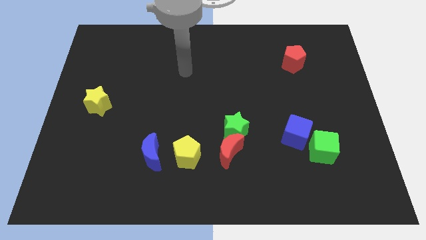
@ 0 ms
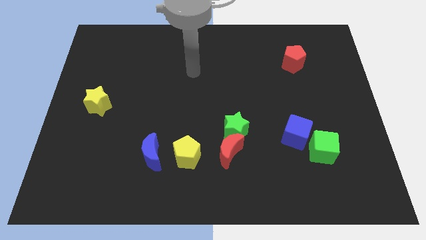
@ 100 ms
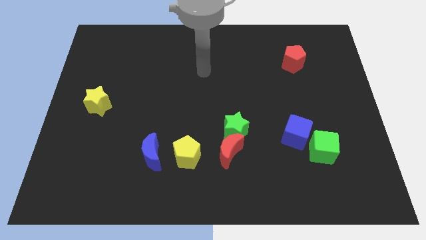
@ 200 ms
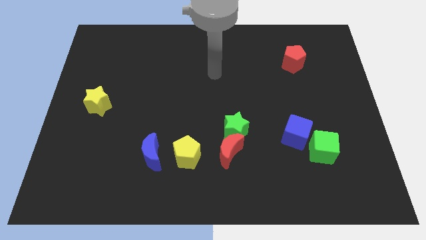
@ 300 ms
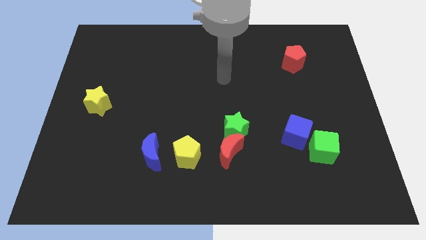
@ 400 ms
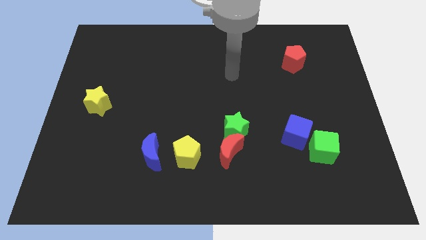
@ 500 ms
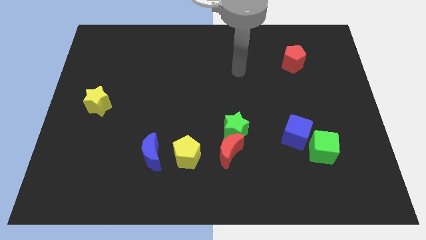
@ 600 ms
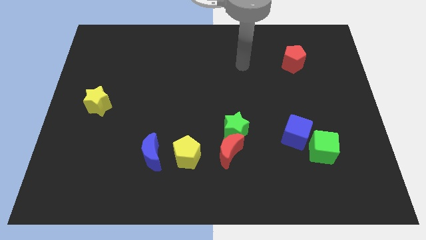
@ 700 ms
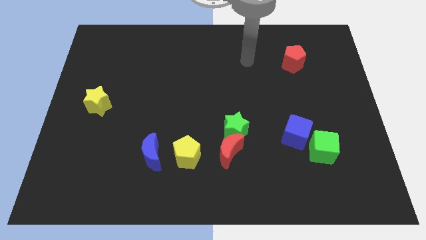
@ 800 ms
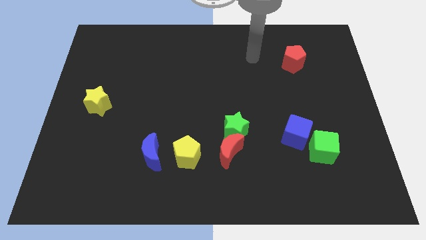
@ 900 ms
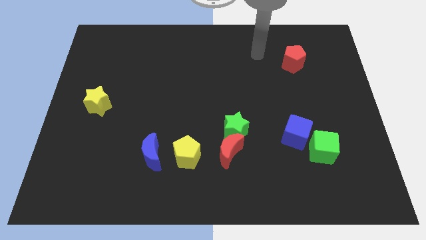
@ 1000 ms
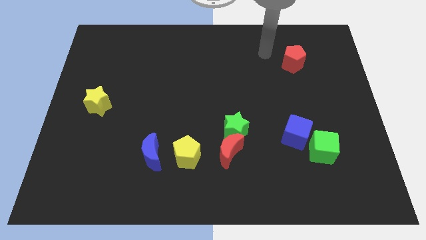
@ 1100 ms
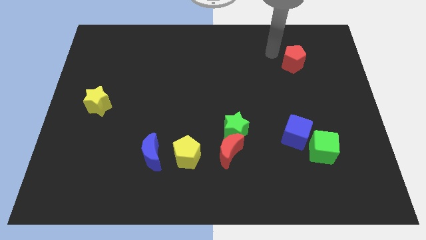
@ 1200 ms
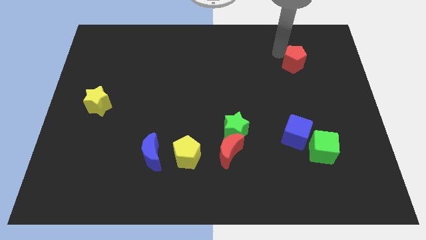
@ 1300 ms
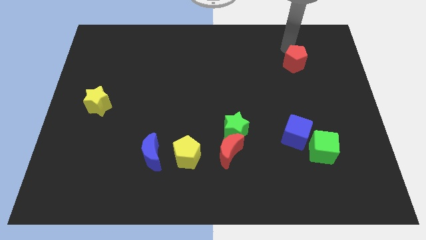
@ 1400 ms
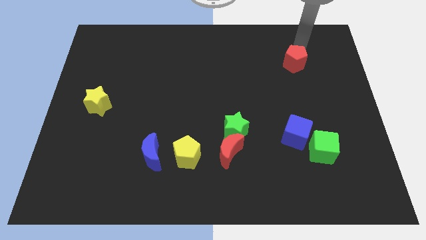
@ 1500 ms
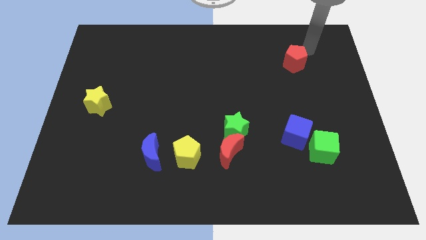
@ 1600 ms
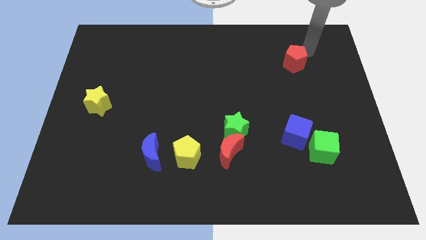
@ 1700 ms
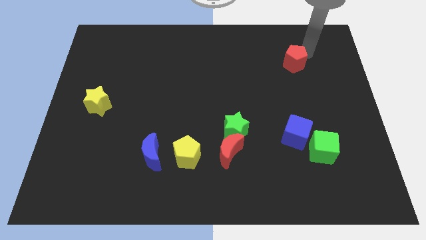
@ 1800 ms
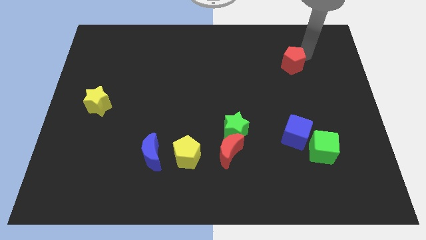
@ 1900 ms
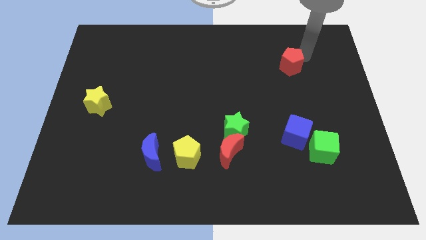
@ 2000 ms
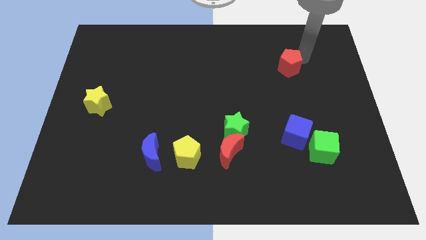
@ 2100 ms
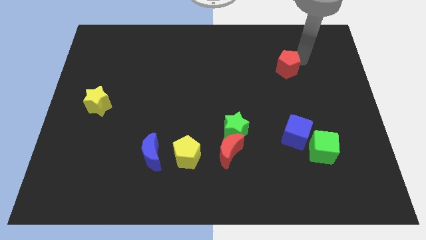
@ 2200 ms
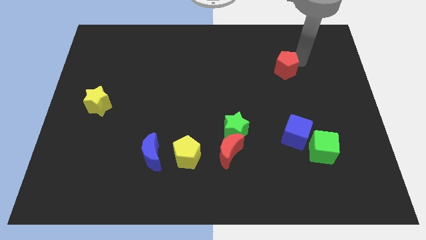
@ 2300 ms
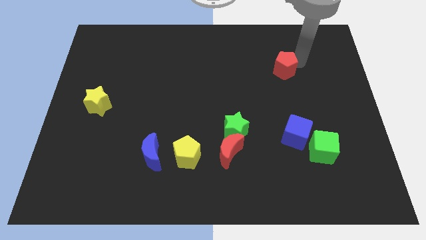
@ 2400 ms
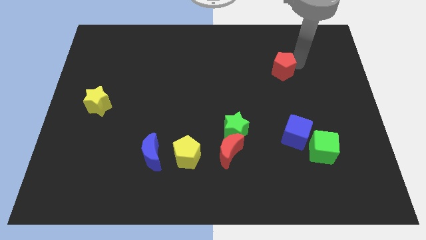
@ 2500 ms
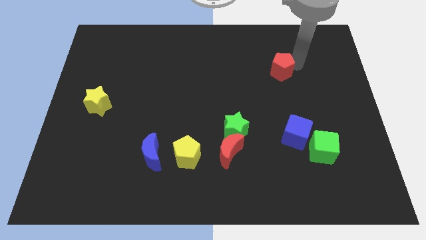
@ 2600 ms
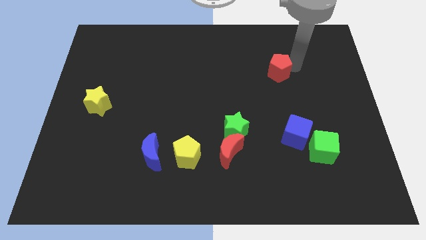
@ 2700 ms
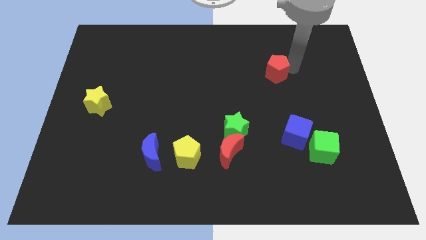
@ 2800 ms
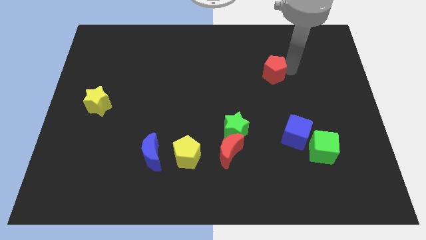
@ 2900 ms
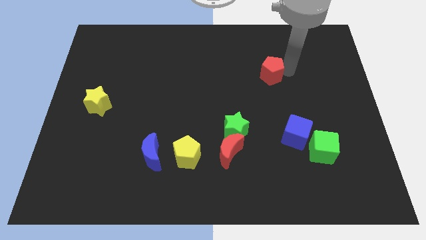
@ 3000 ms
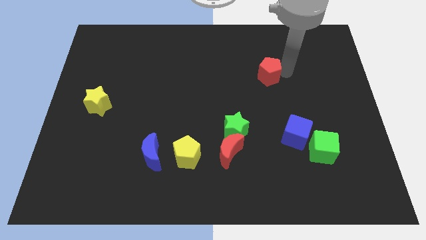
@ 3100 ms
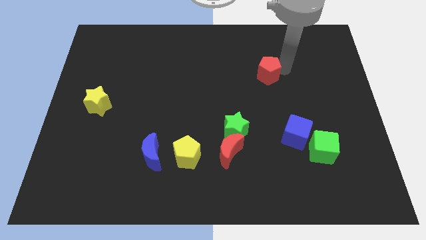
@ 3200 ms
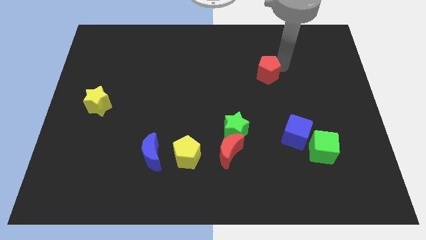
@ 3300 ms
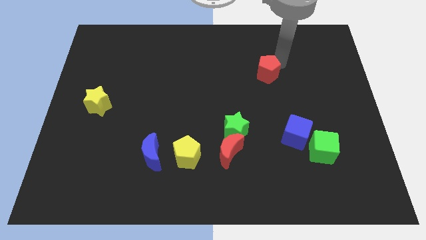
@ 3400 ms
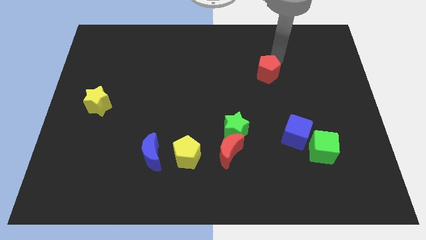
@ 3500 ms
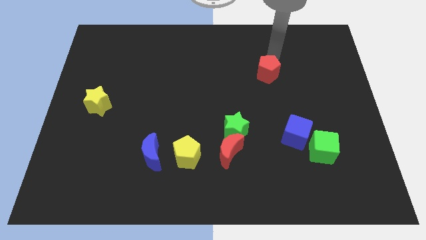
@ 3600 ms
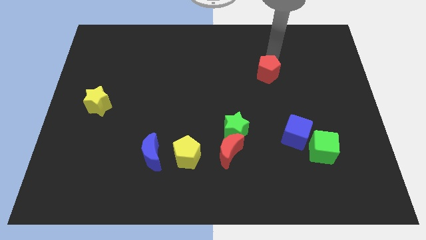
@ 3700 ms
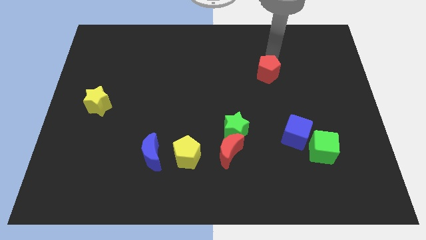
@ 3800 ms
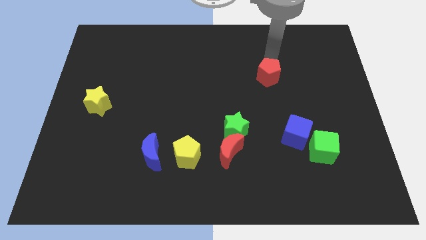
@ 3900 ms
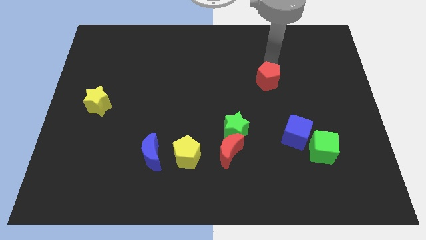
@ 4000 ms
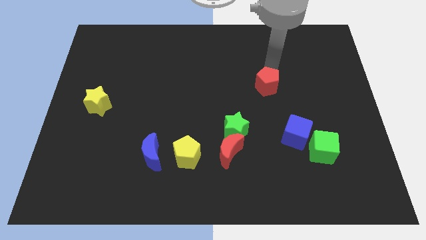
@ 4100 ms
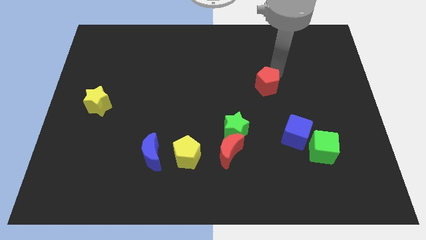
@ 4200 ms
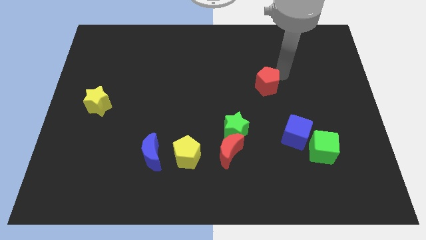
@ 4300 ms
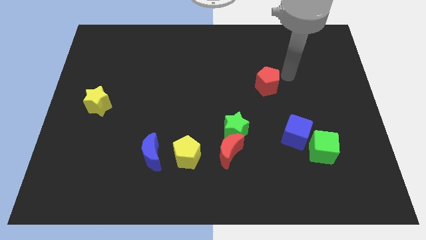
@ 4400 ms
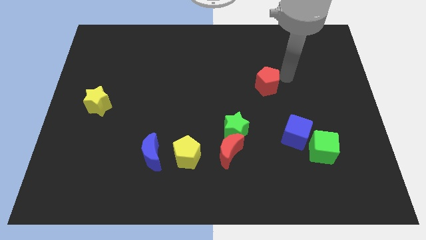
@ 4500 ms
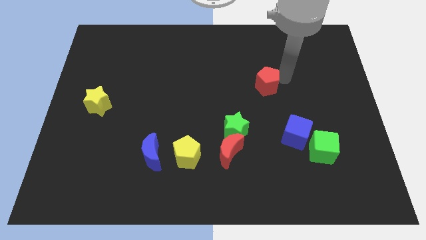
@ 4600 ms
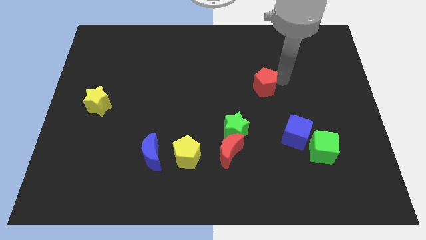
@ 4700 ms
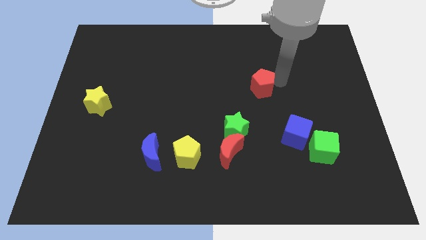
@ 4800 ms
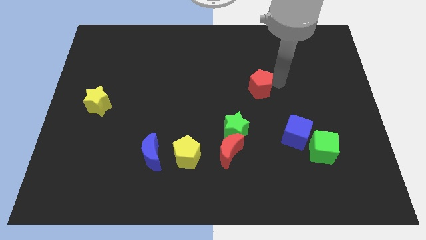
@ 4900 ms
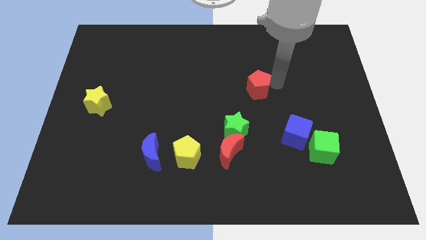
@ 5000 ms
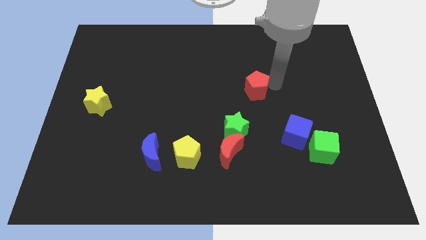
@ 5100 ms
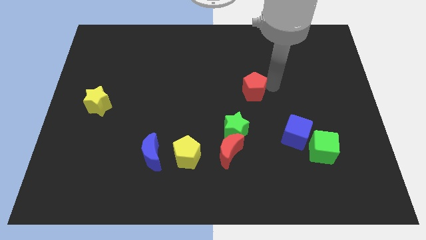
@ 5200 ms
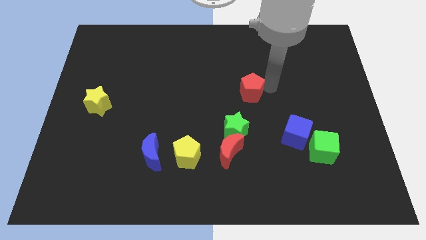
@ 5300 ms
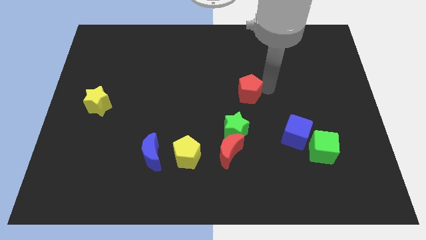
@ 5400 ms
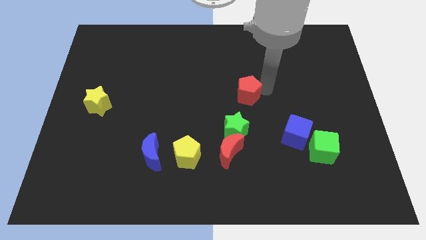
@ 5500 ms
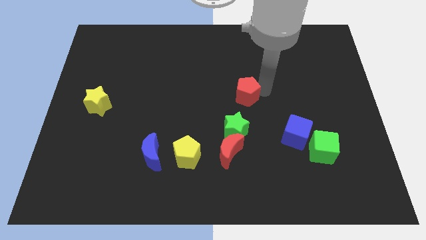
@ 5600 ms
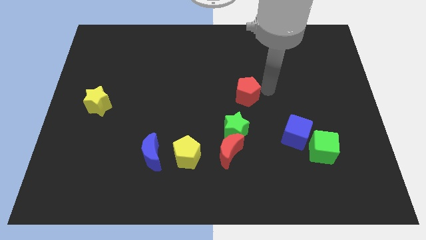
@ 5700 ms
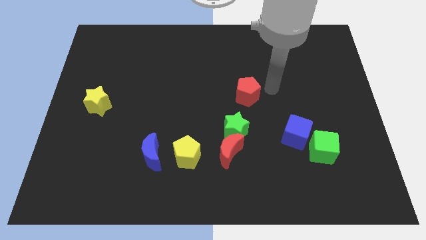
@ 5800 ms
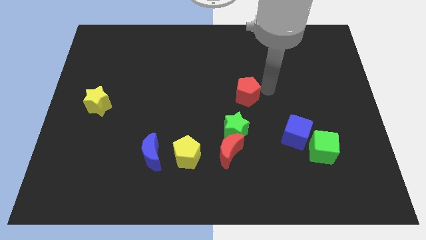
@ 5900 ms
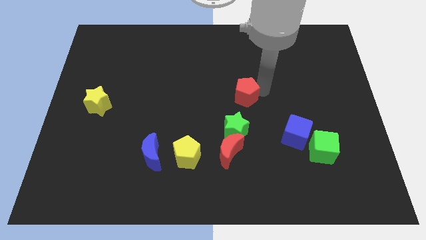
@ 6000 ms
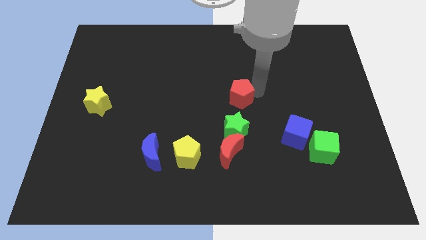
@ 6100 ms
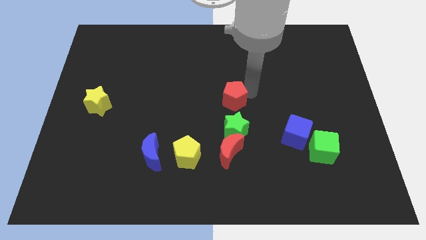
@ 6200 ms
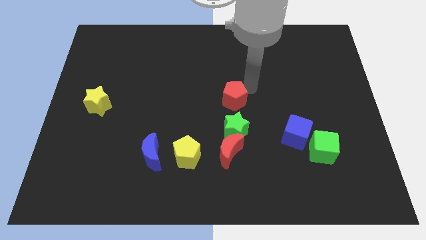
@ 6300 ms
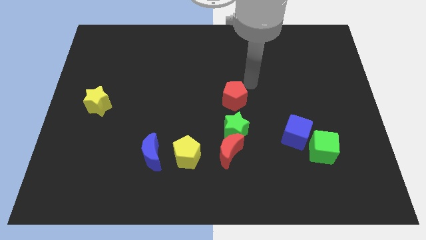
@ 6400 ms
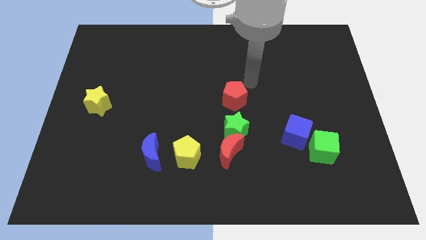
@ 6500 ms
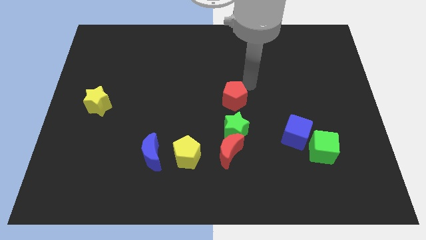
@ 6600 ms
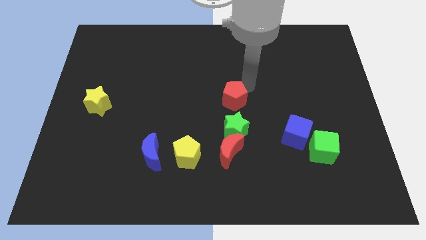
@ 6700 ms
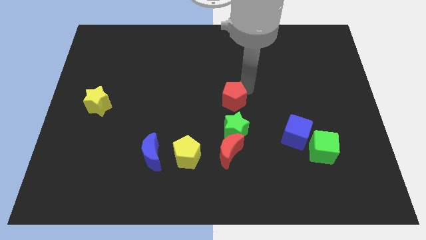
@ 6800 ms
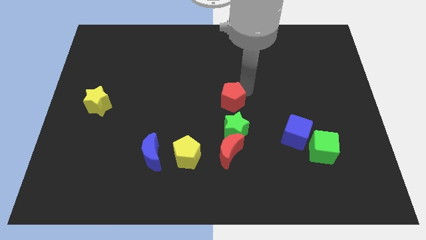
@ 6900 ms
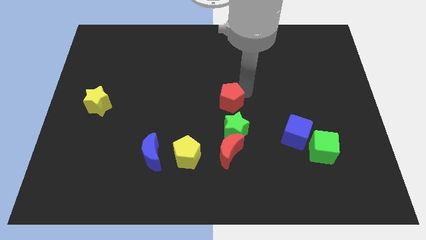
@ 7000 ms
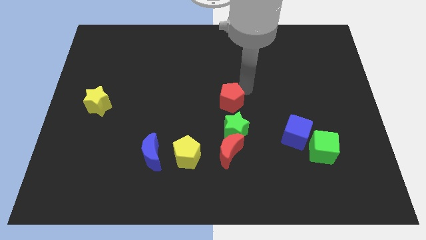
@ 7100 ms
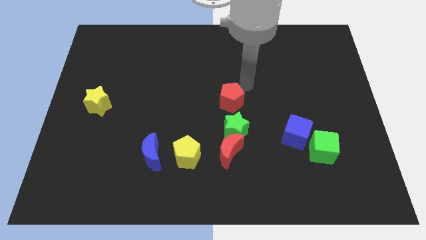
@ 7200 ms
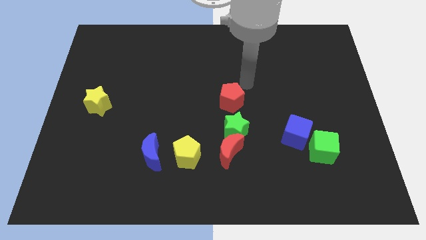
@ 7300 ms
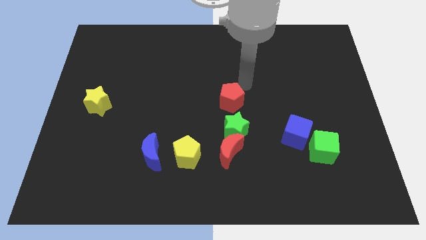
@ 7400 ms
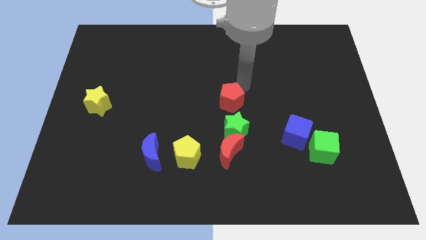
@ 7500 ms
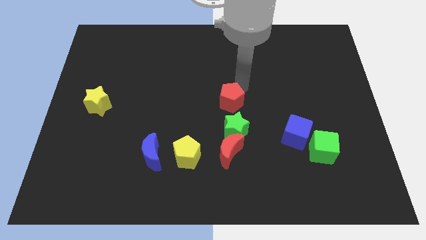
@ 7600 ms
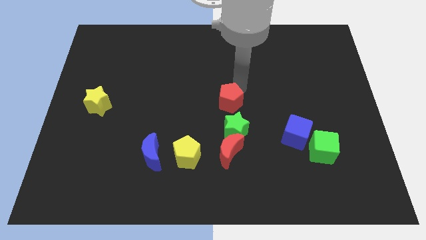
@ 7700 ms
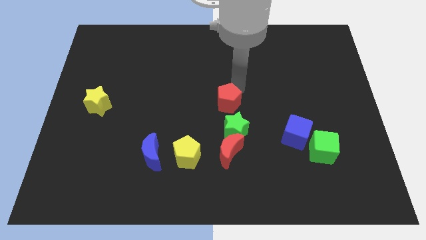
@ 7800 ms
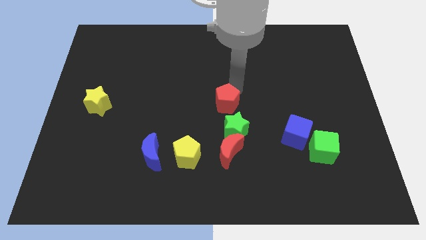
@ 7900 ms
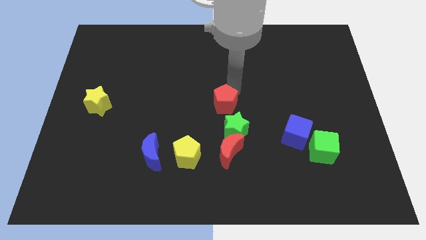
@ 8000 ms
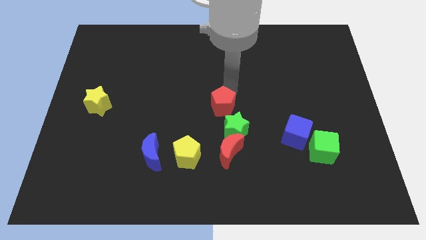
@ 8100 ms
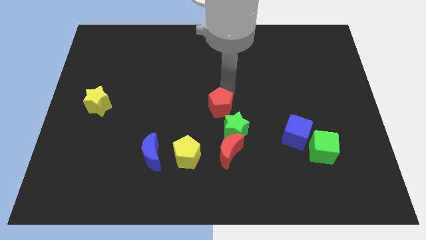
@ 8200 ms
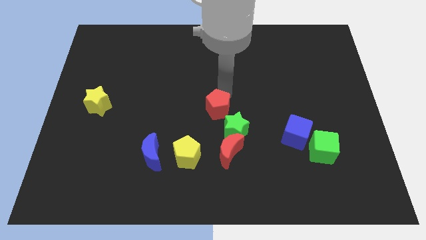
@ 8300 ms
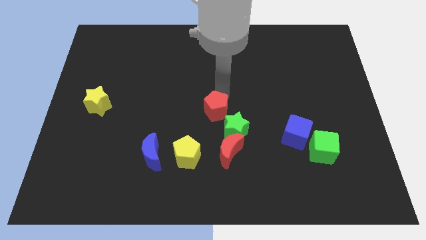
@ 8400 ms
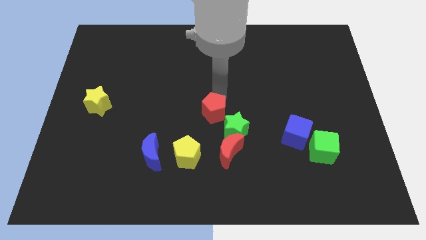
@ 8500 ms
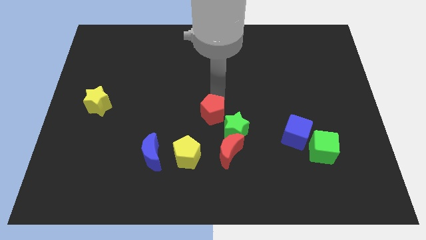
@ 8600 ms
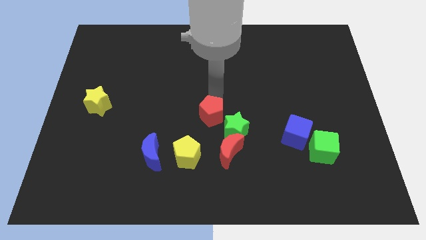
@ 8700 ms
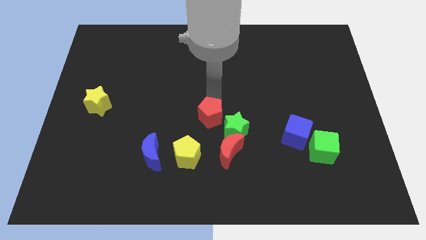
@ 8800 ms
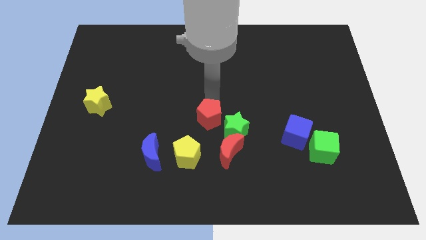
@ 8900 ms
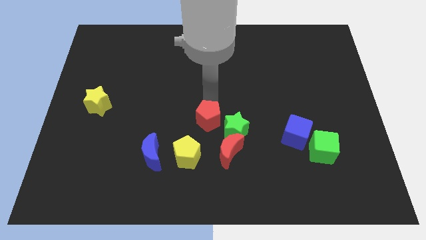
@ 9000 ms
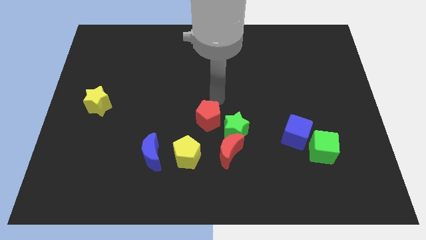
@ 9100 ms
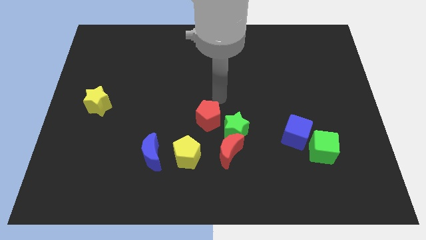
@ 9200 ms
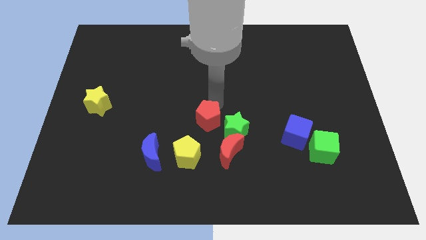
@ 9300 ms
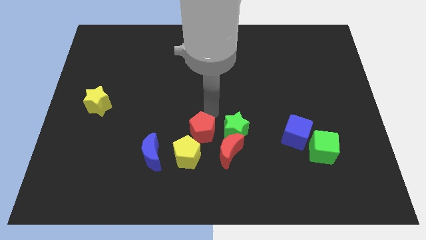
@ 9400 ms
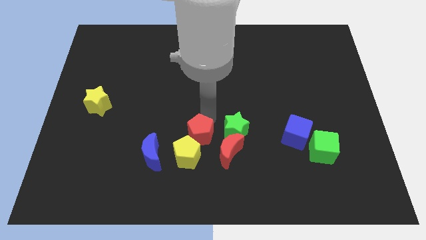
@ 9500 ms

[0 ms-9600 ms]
move the red pentagon close to the yellow pentagon
